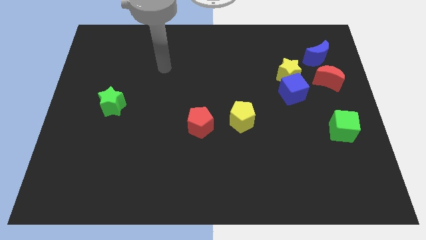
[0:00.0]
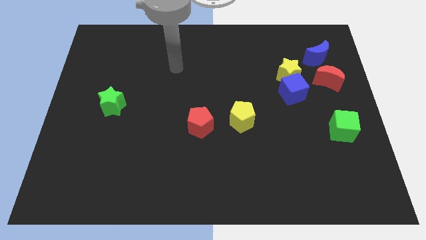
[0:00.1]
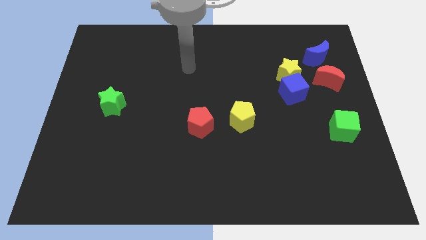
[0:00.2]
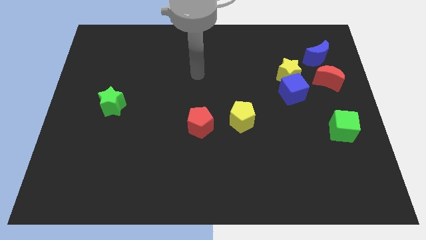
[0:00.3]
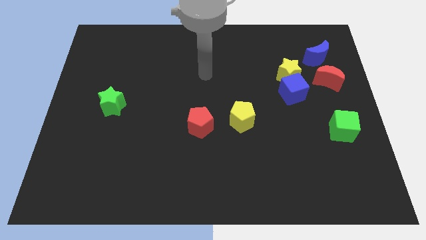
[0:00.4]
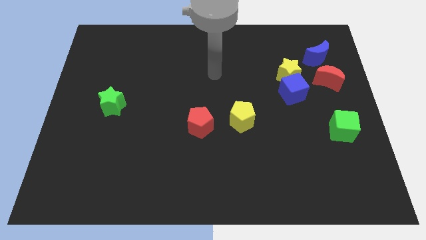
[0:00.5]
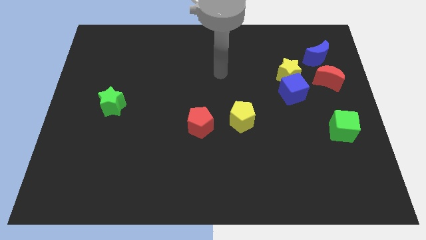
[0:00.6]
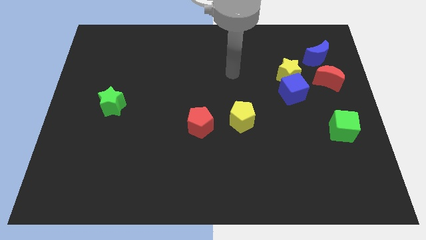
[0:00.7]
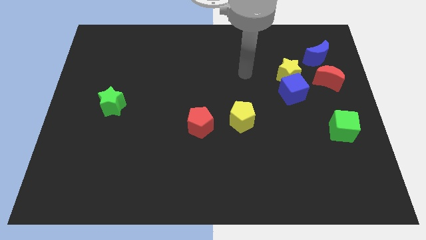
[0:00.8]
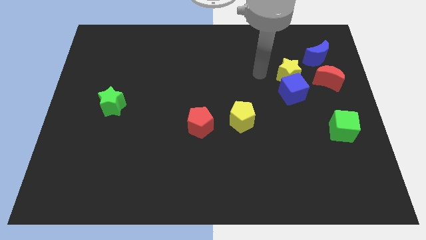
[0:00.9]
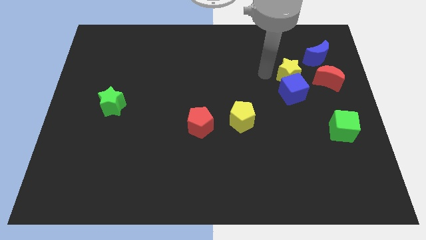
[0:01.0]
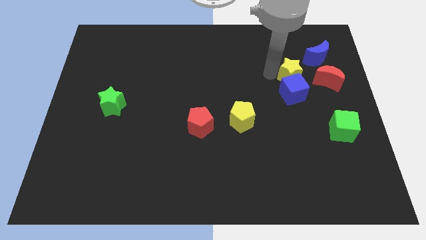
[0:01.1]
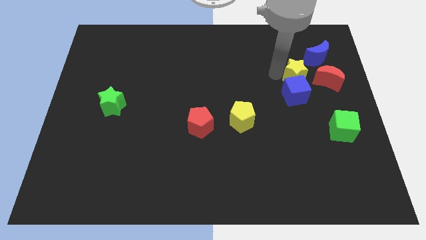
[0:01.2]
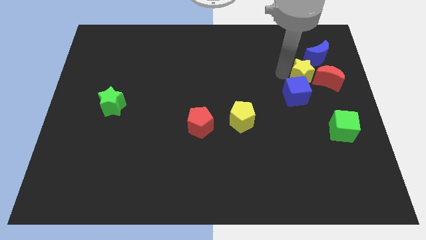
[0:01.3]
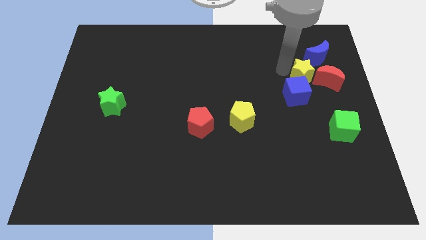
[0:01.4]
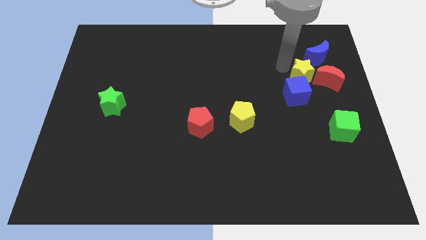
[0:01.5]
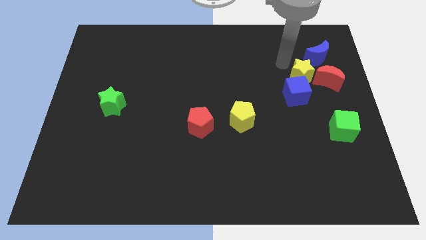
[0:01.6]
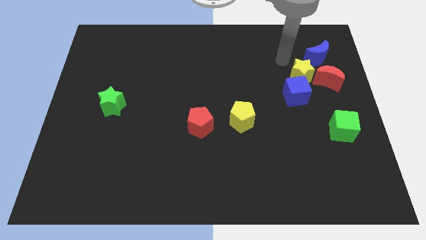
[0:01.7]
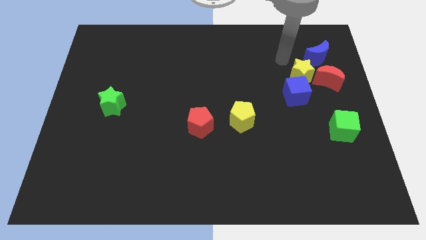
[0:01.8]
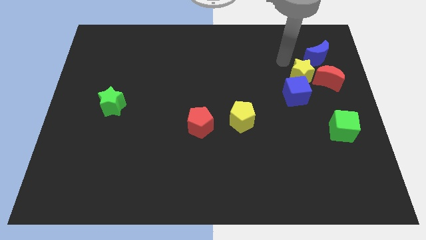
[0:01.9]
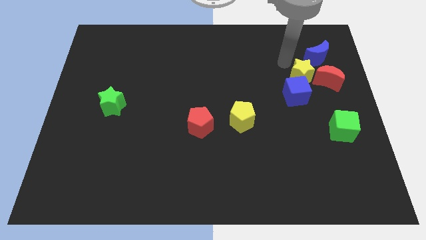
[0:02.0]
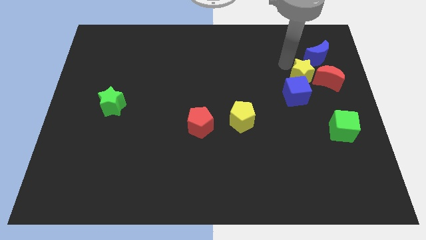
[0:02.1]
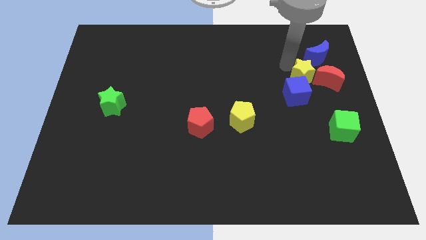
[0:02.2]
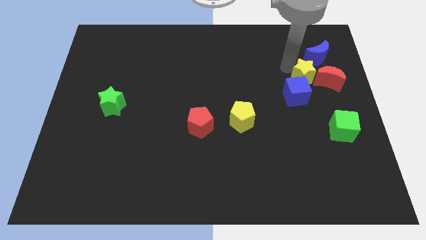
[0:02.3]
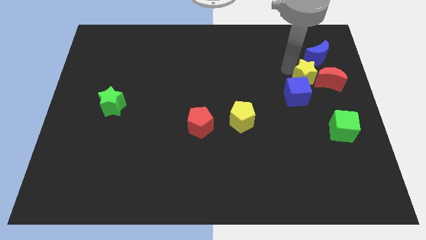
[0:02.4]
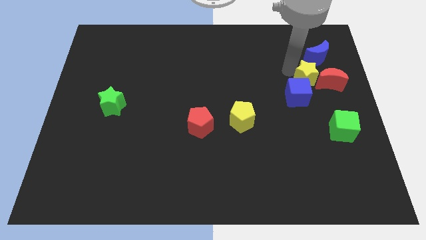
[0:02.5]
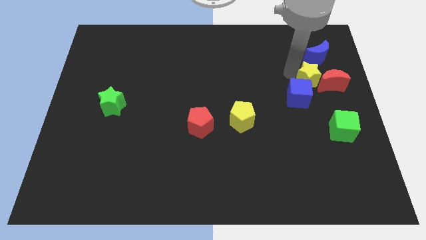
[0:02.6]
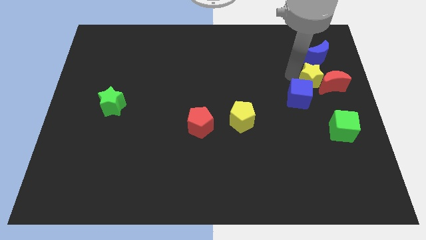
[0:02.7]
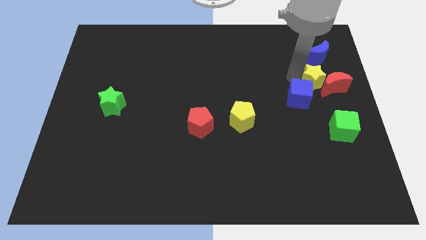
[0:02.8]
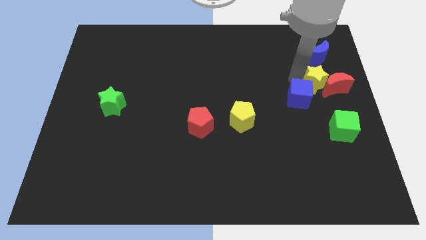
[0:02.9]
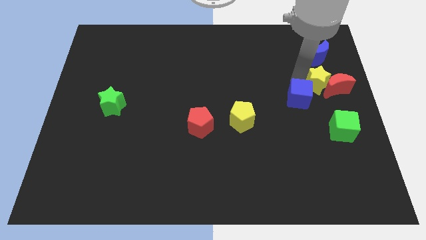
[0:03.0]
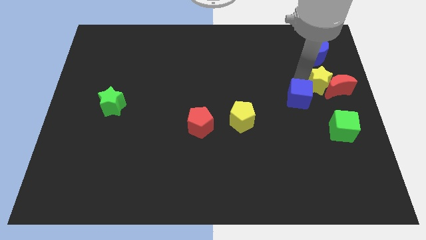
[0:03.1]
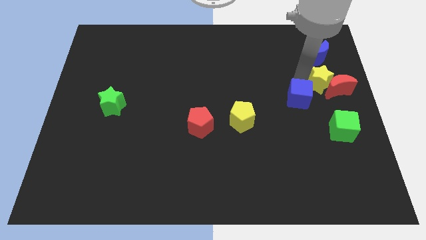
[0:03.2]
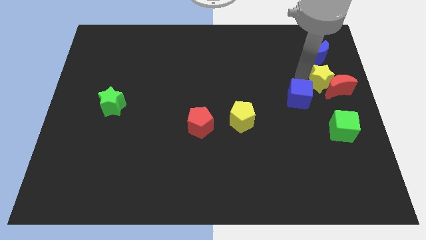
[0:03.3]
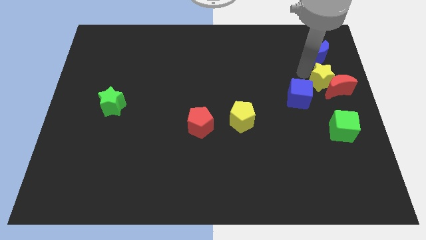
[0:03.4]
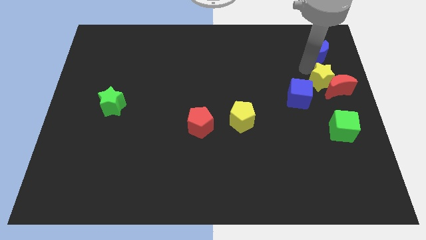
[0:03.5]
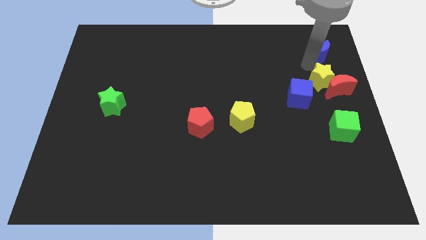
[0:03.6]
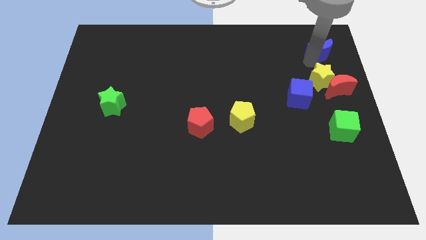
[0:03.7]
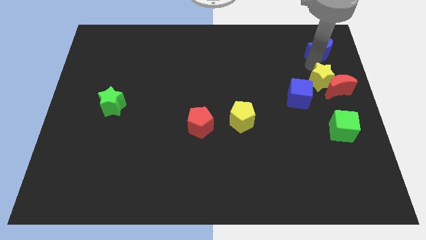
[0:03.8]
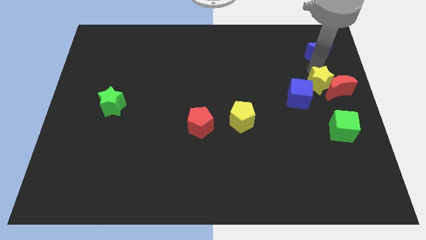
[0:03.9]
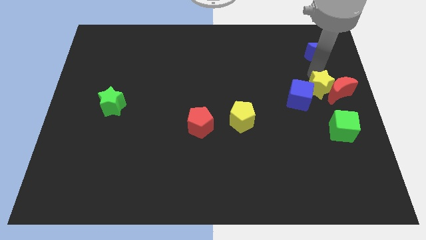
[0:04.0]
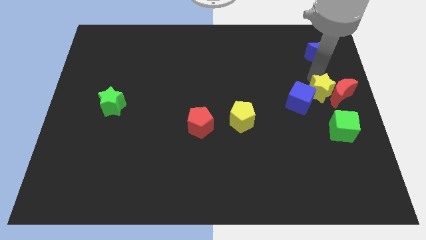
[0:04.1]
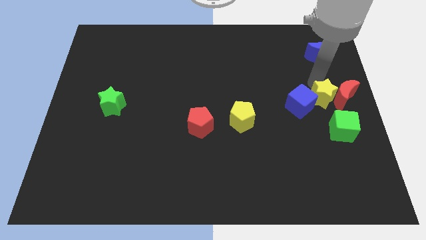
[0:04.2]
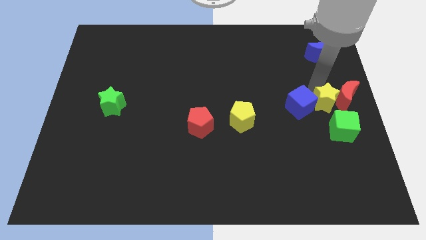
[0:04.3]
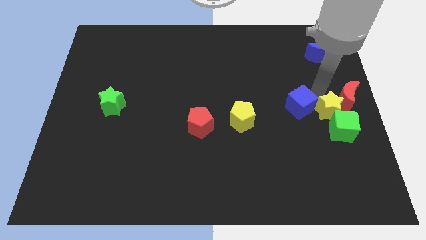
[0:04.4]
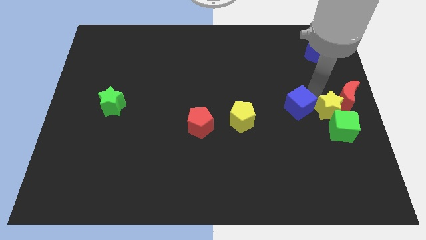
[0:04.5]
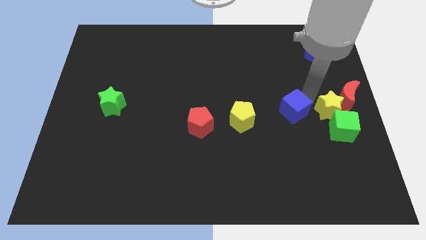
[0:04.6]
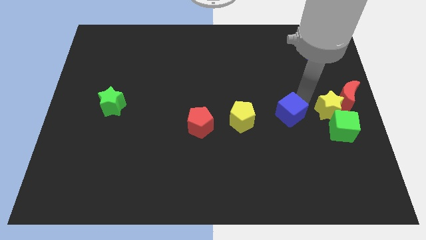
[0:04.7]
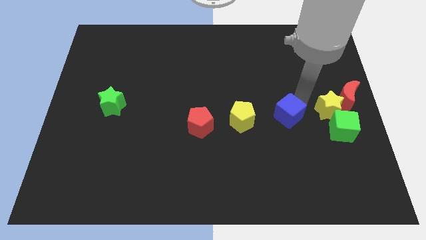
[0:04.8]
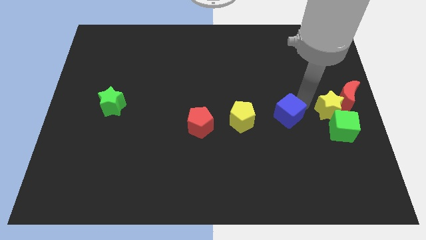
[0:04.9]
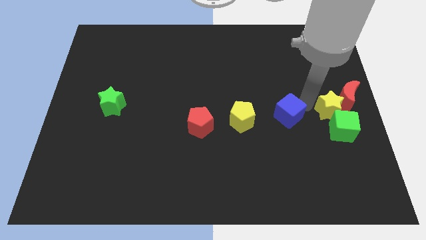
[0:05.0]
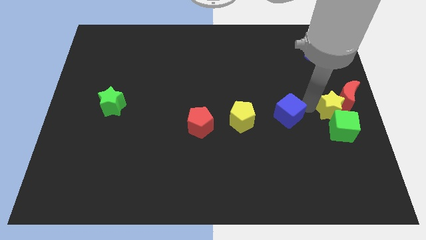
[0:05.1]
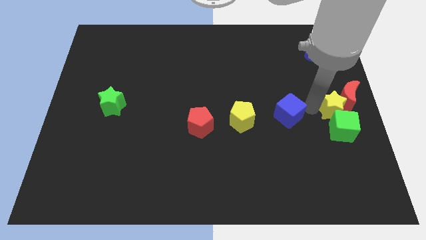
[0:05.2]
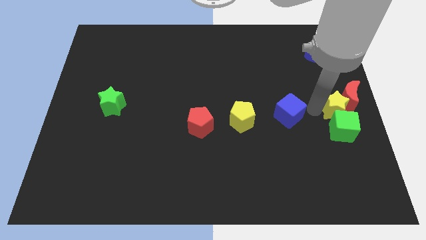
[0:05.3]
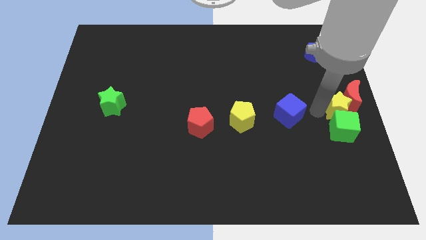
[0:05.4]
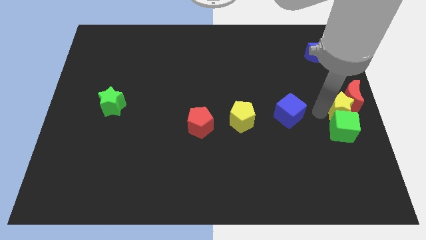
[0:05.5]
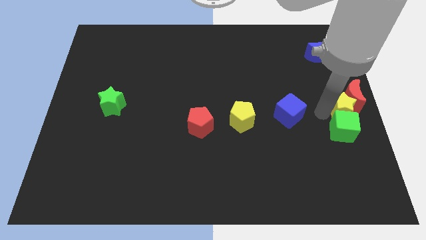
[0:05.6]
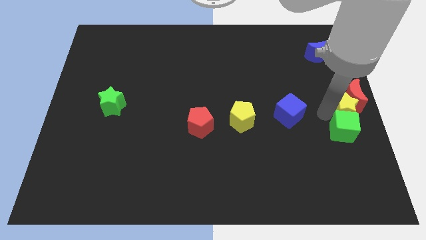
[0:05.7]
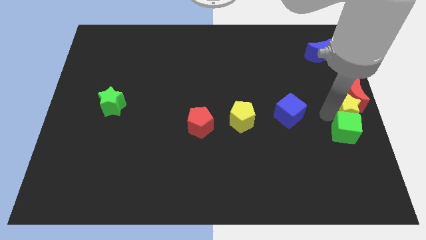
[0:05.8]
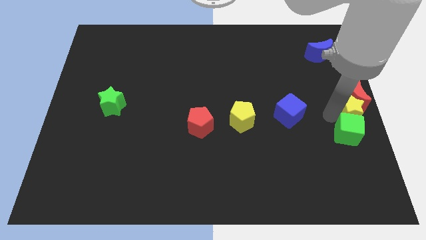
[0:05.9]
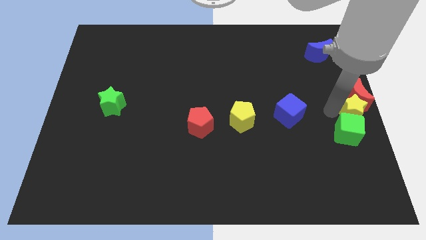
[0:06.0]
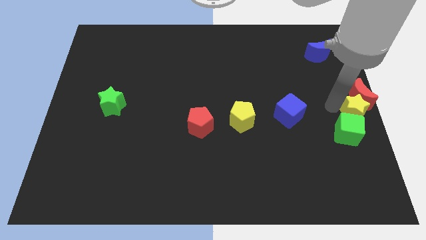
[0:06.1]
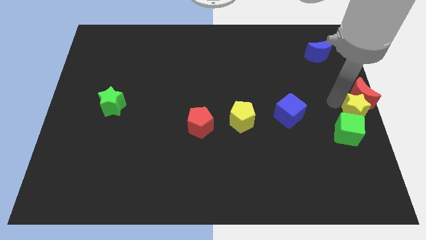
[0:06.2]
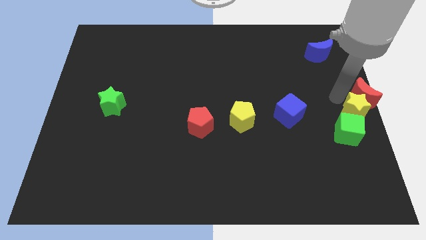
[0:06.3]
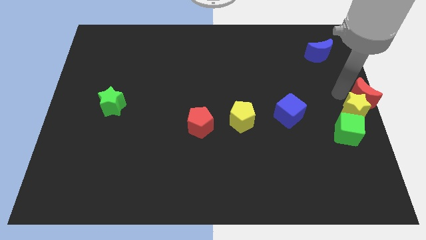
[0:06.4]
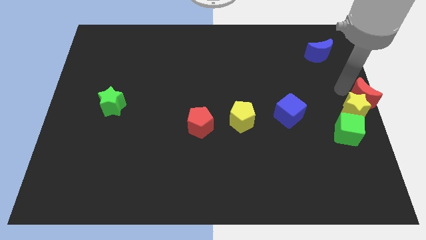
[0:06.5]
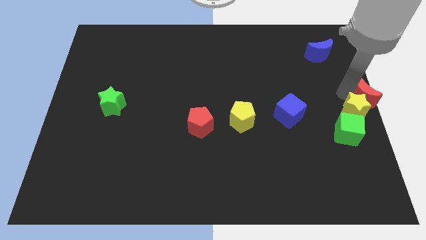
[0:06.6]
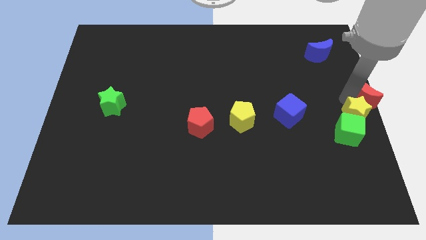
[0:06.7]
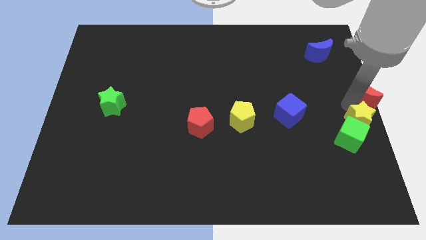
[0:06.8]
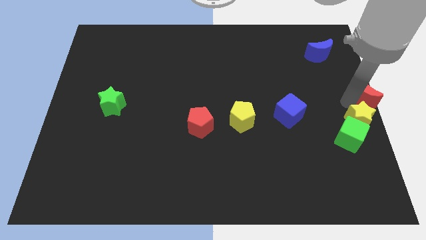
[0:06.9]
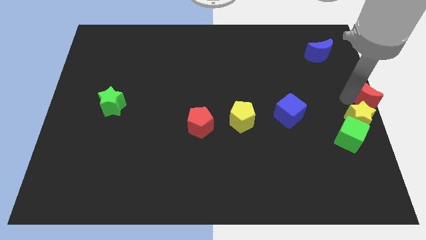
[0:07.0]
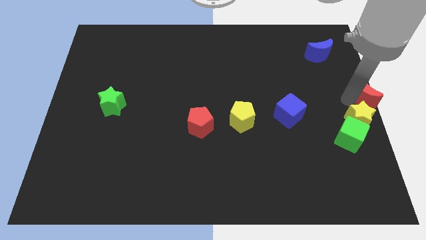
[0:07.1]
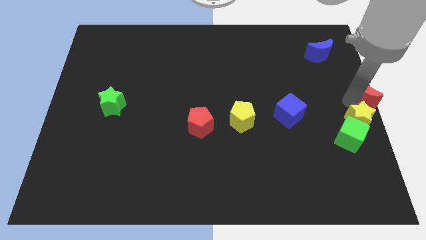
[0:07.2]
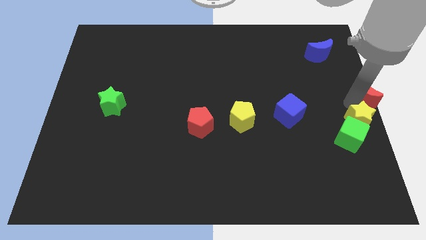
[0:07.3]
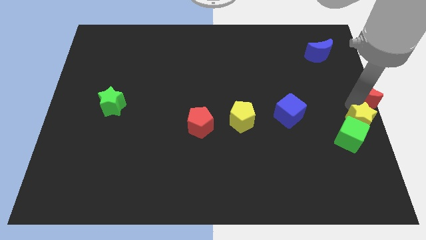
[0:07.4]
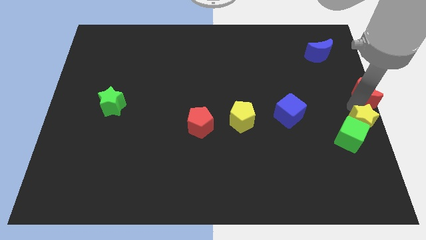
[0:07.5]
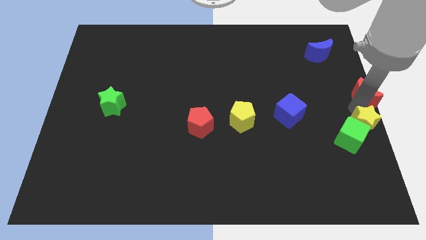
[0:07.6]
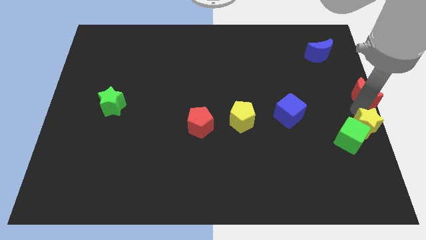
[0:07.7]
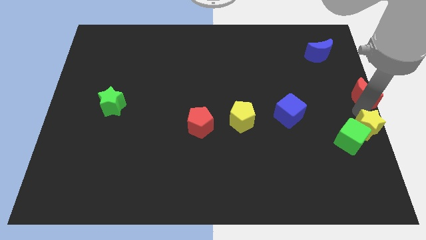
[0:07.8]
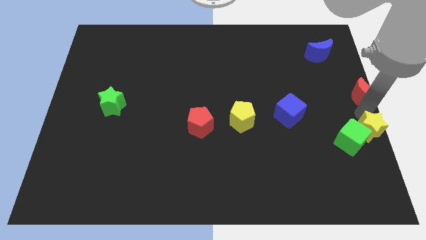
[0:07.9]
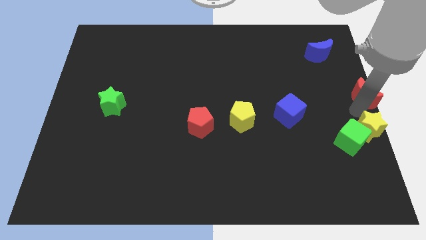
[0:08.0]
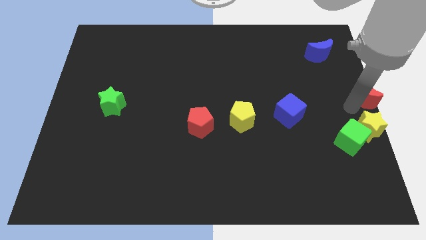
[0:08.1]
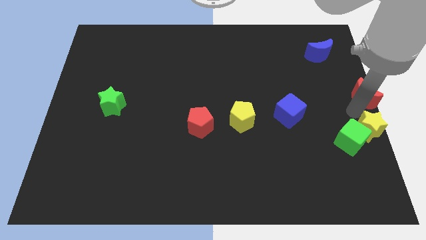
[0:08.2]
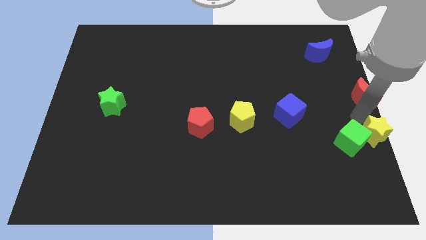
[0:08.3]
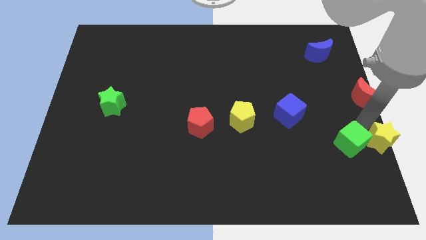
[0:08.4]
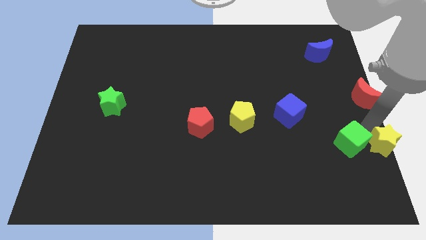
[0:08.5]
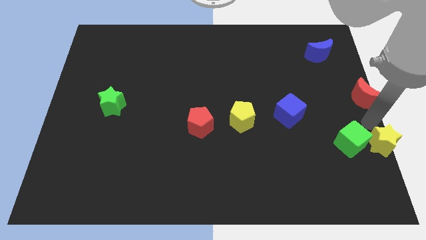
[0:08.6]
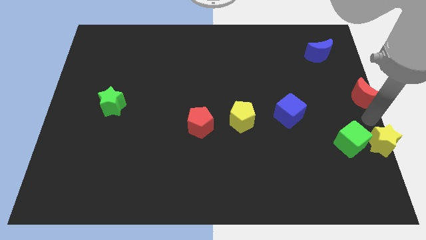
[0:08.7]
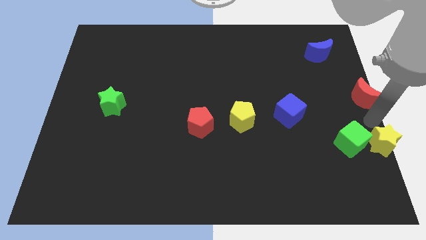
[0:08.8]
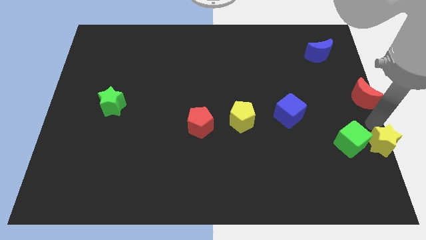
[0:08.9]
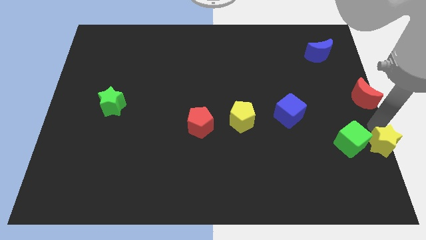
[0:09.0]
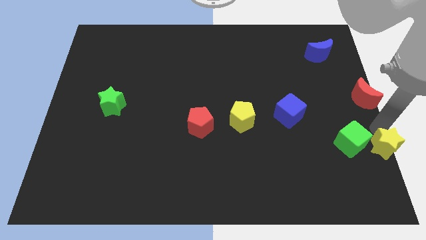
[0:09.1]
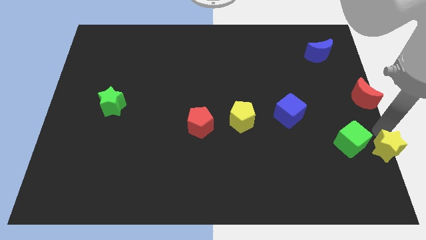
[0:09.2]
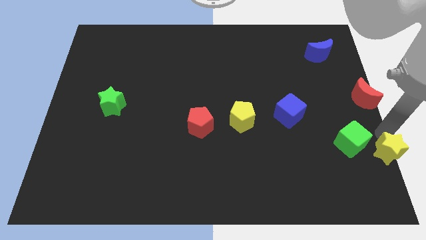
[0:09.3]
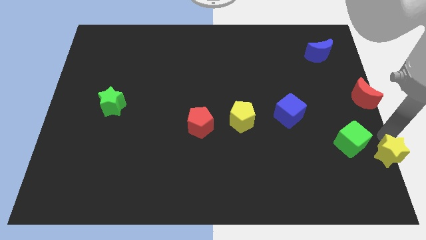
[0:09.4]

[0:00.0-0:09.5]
move the yellow star to the lower right corner
